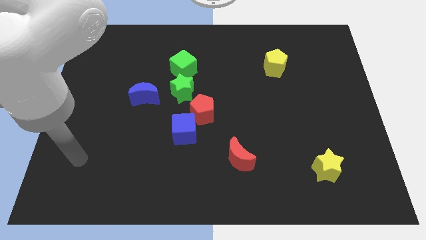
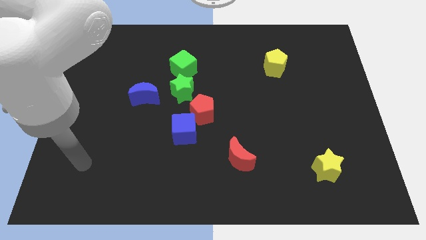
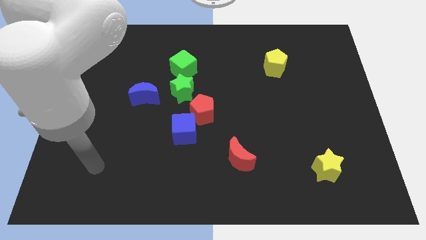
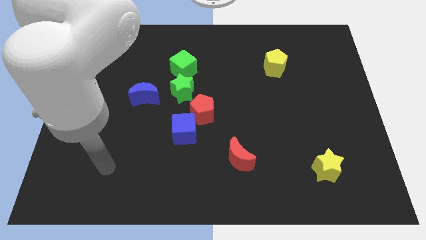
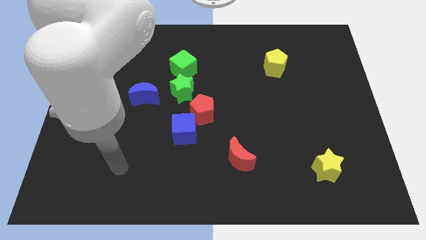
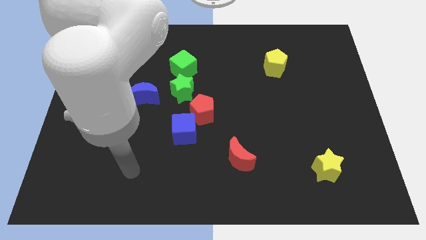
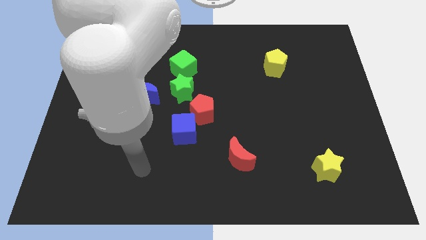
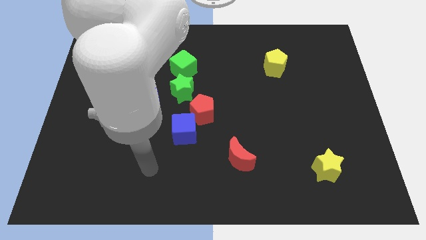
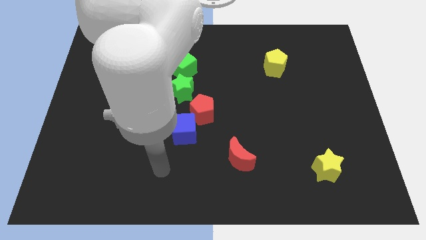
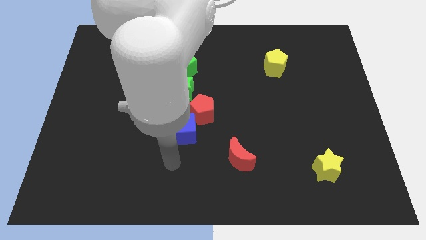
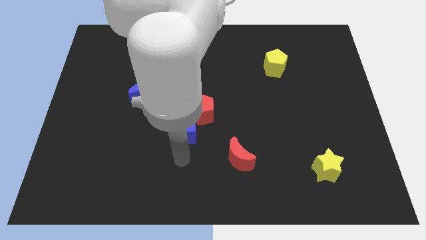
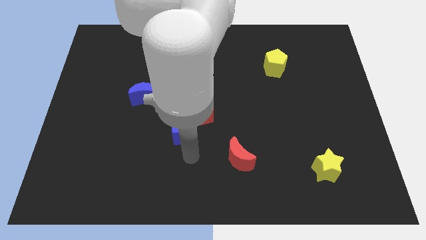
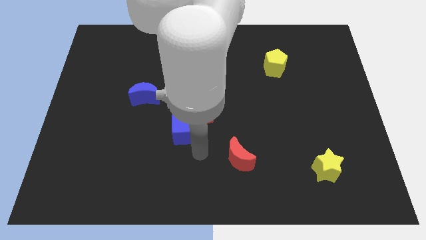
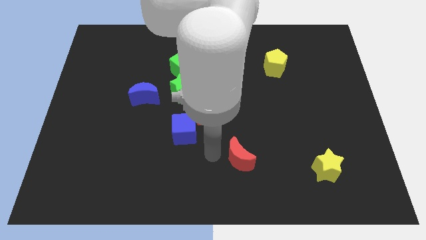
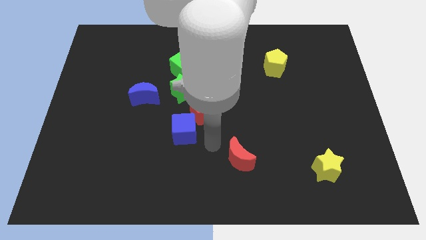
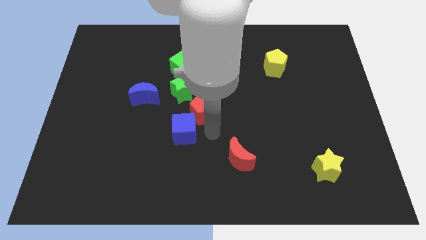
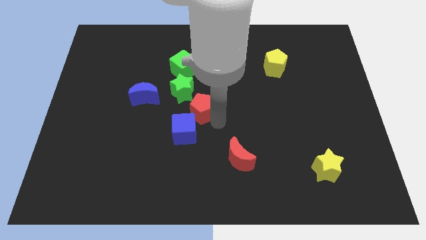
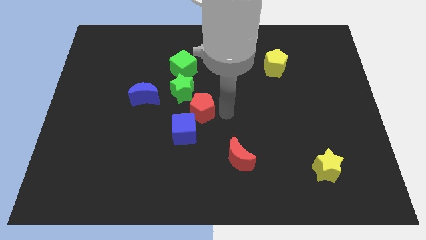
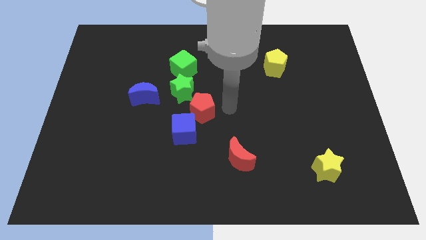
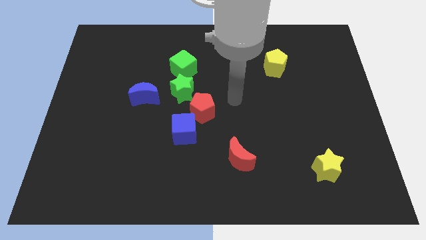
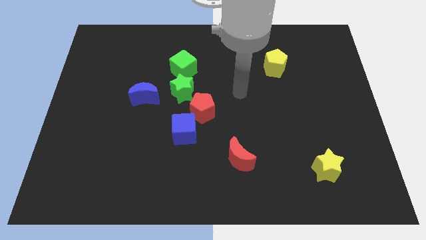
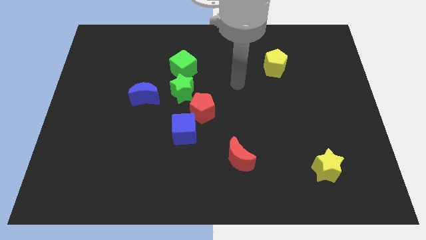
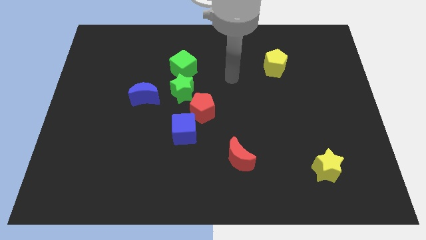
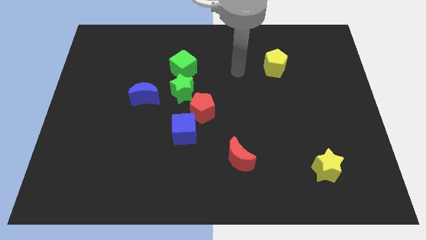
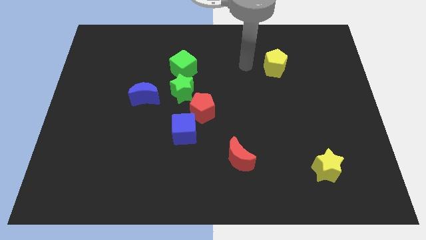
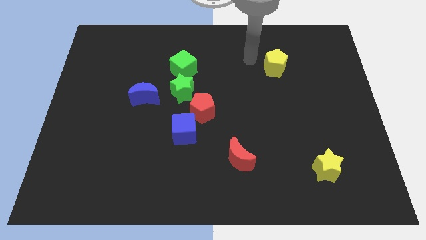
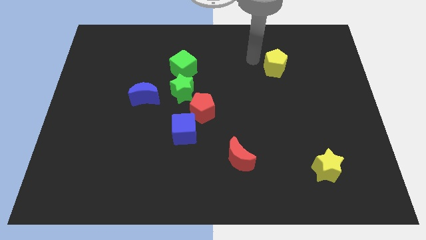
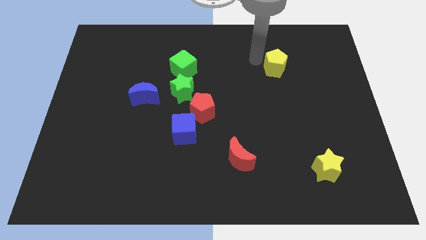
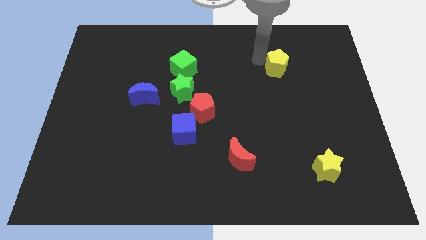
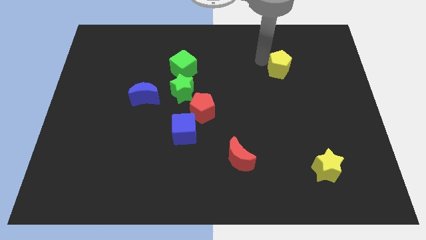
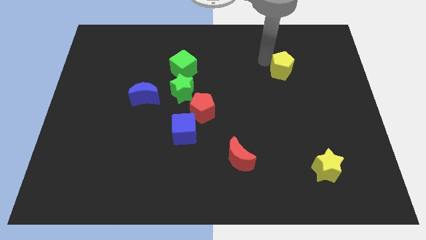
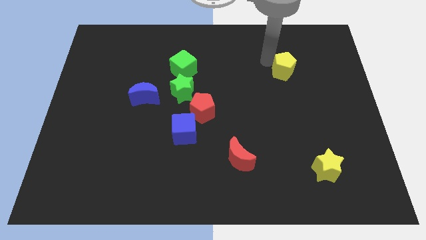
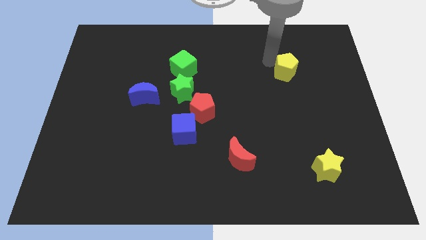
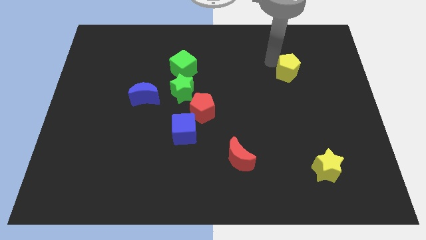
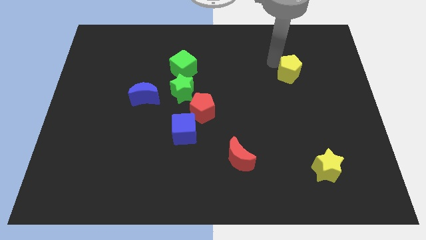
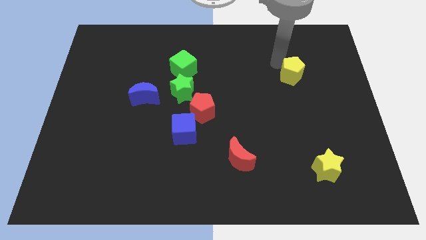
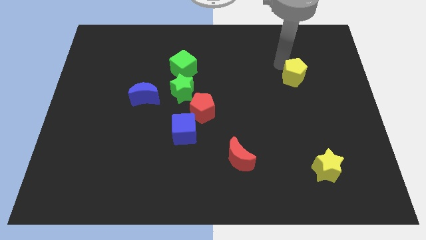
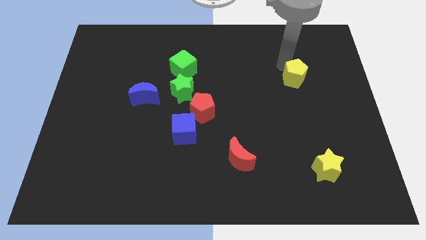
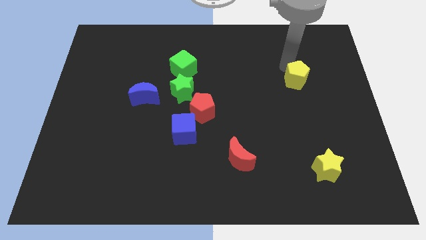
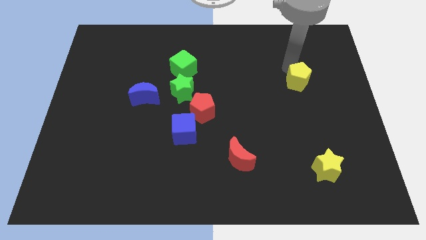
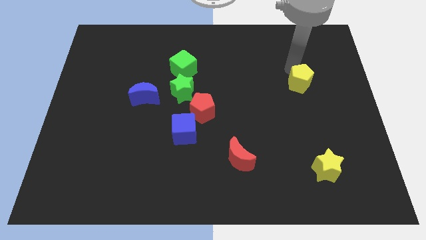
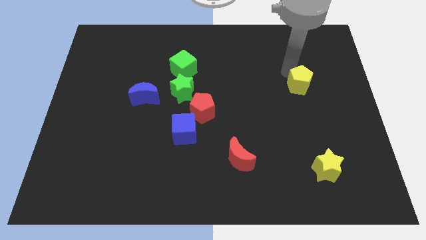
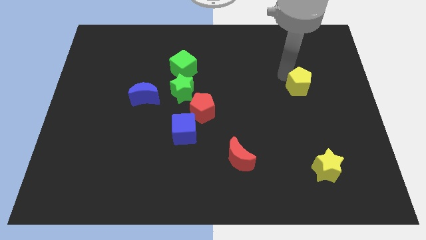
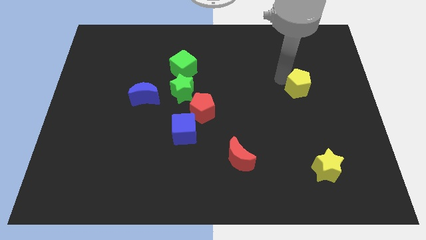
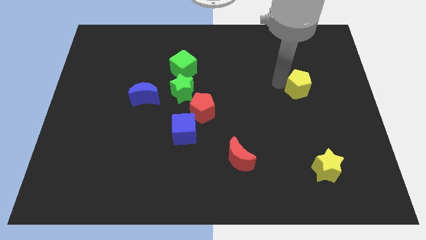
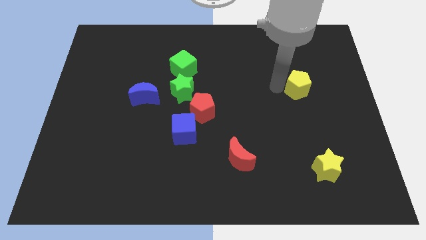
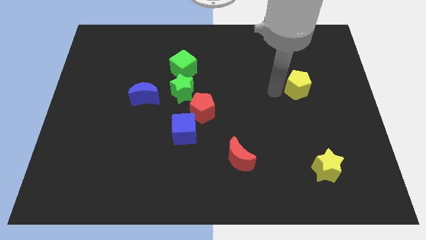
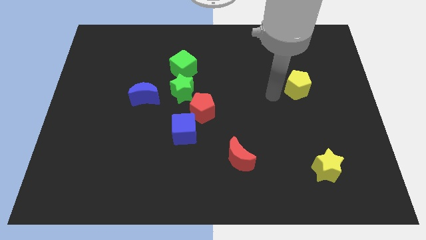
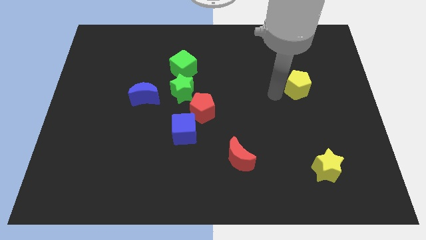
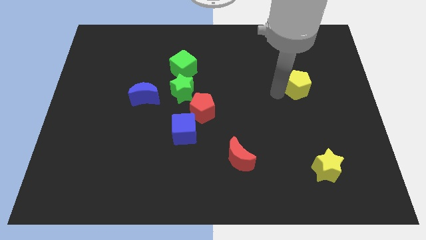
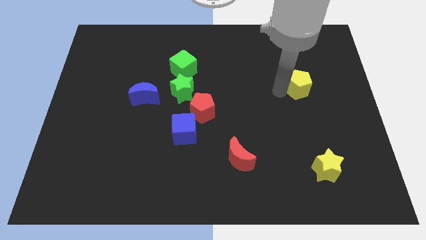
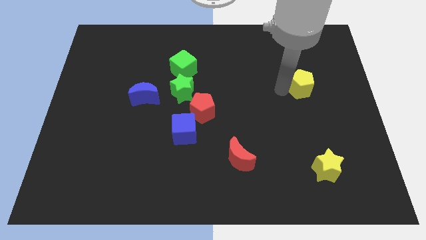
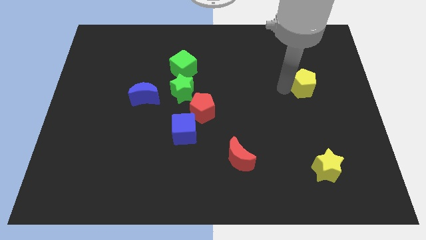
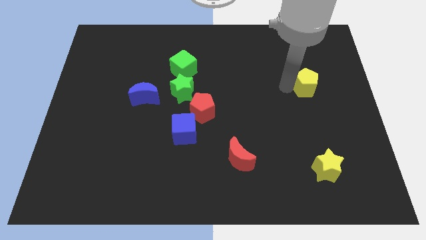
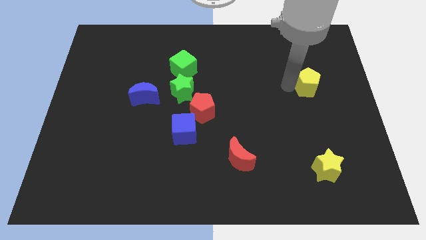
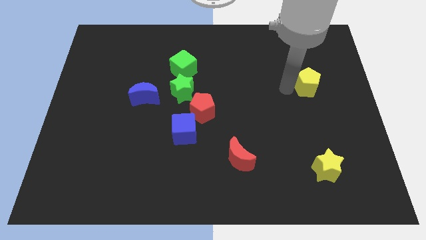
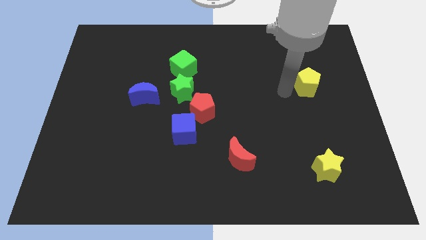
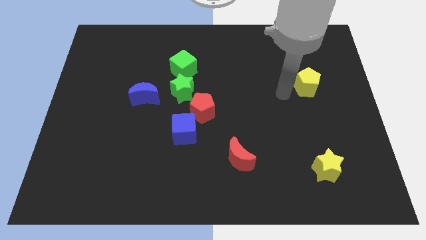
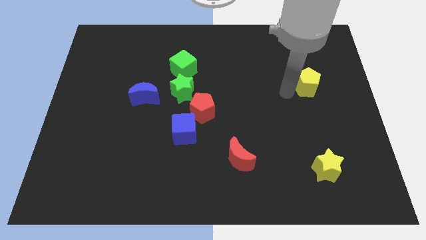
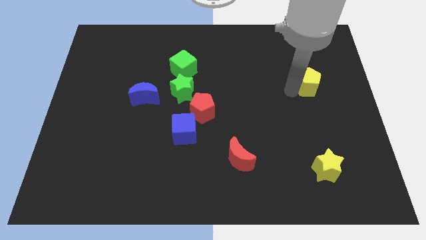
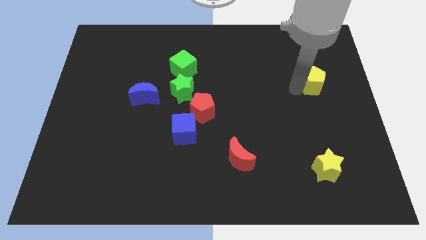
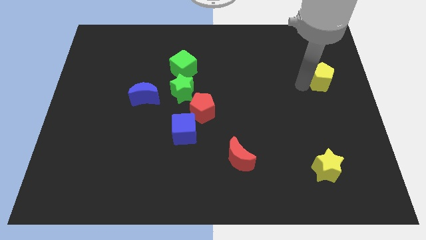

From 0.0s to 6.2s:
slide the yellow pentagon to the right side of the board

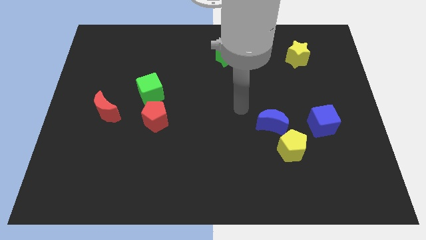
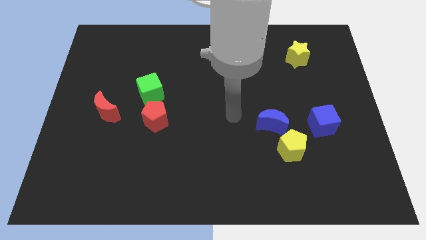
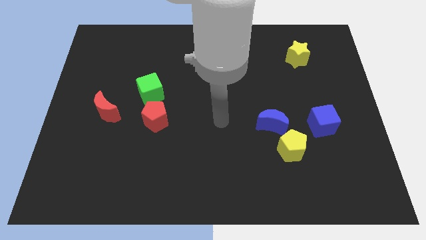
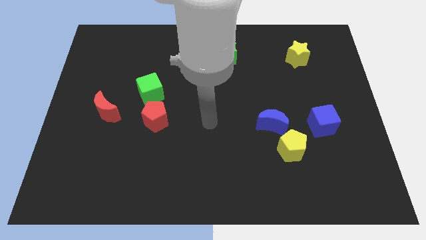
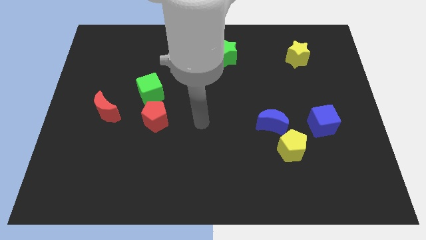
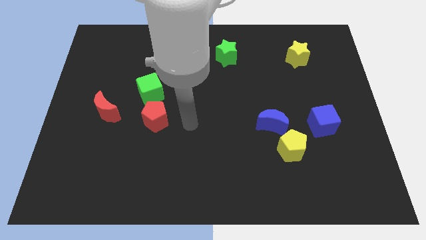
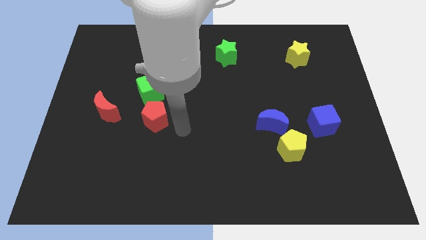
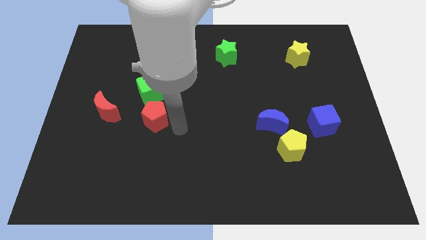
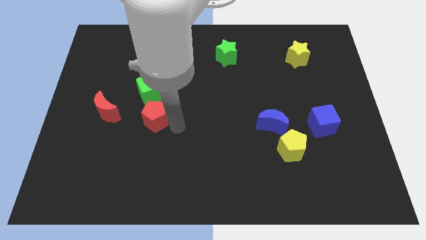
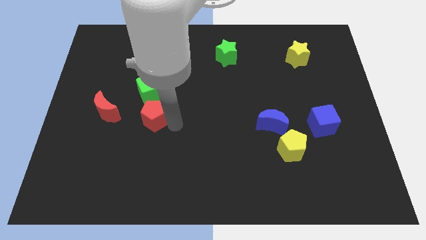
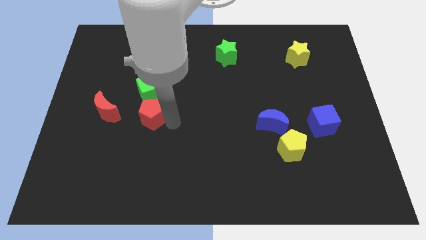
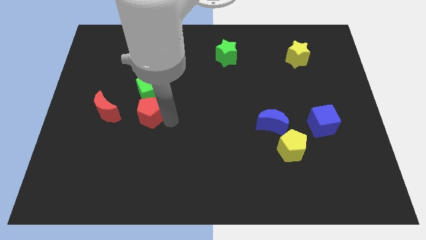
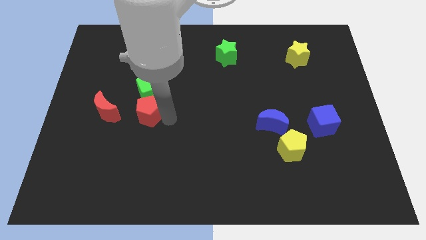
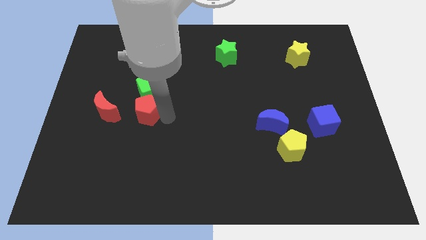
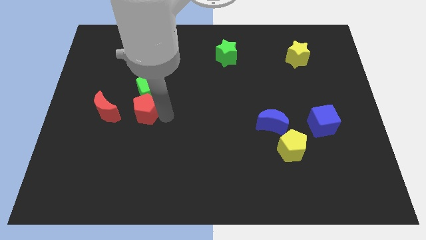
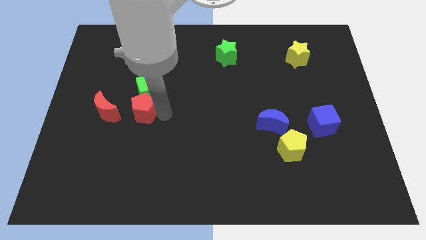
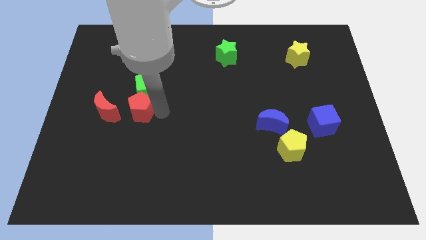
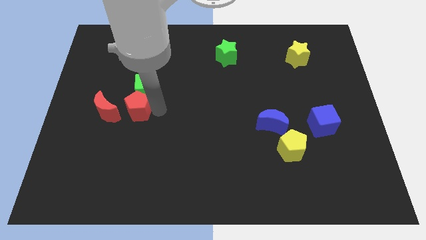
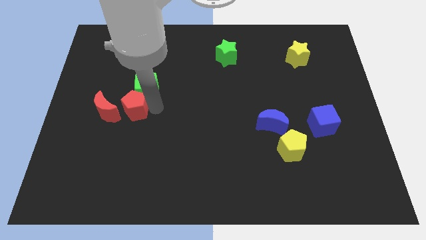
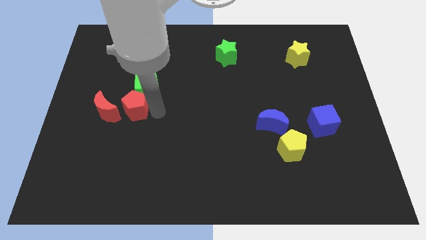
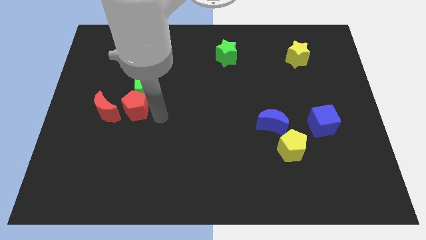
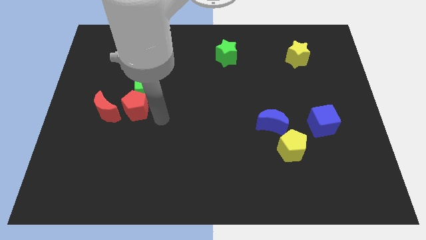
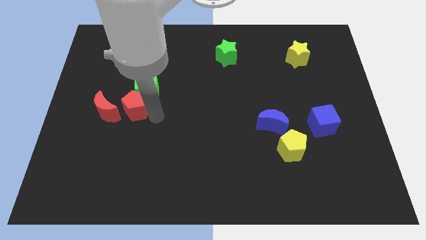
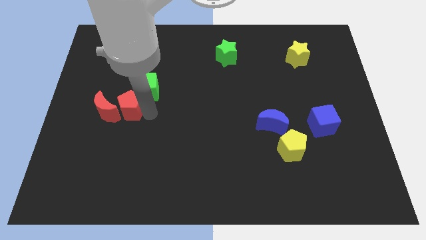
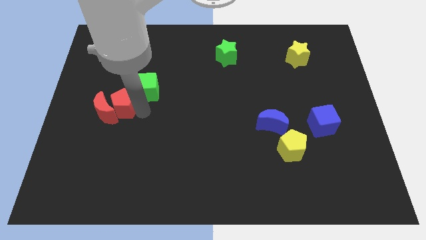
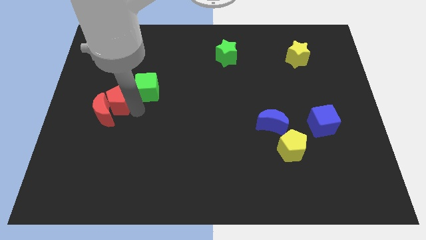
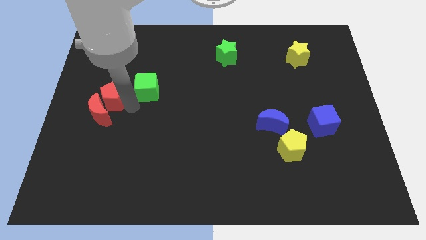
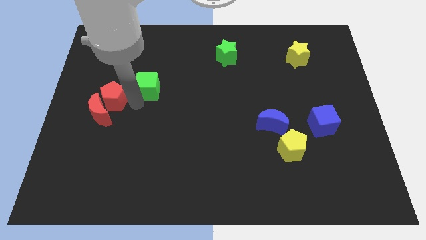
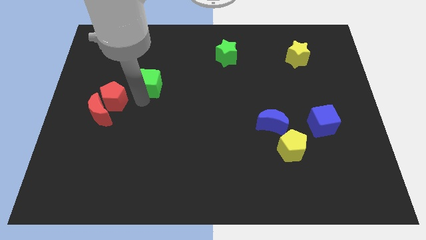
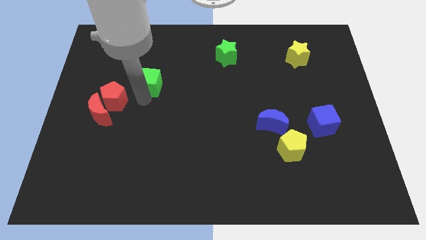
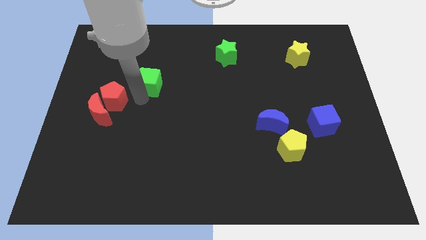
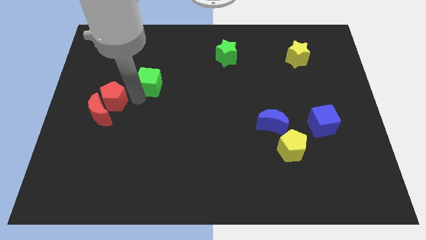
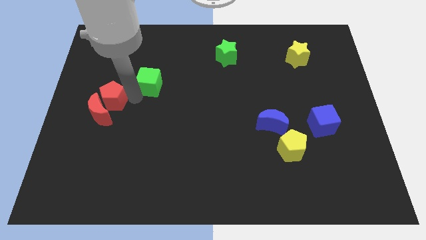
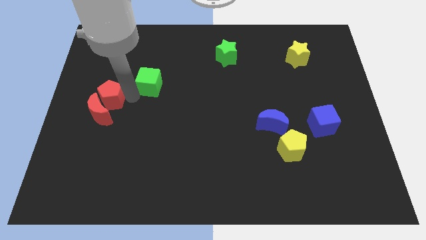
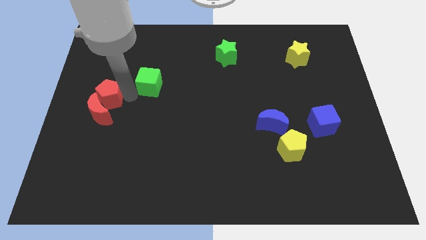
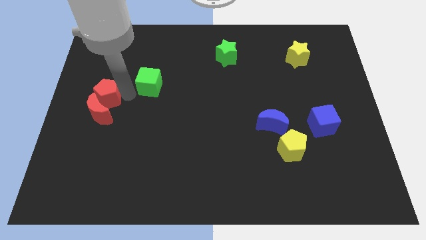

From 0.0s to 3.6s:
move the red pentagon to the left side of the board
